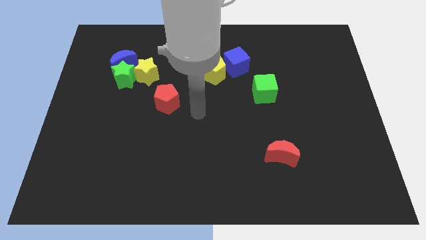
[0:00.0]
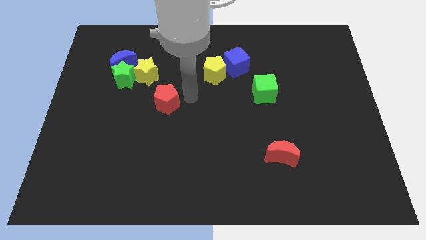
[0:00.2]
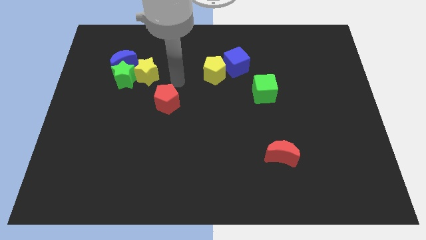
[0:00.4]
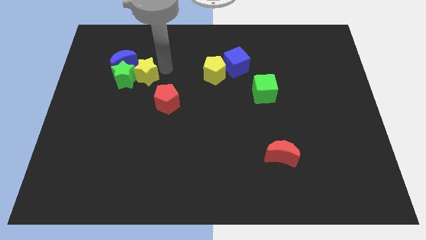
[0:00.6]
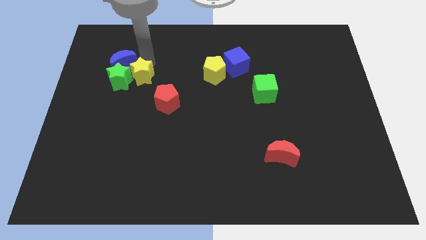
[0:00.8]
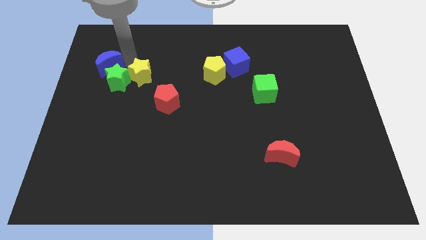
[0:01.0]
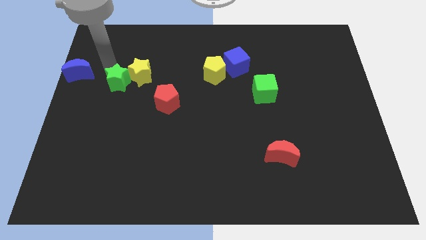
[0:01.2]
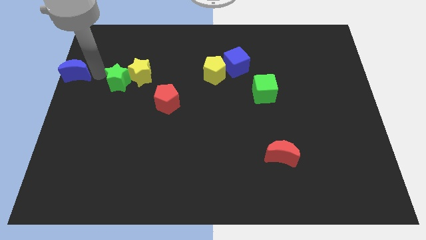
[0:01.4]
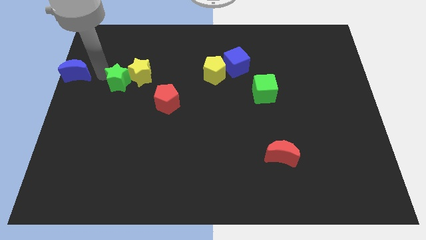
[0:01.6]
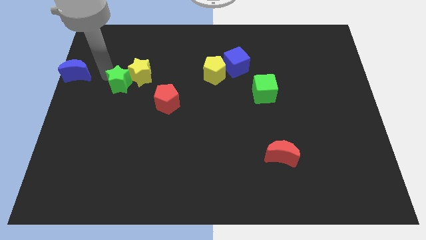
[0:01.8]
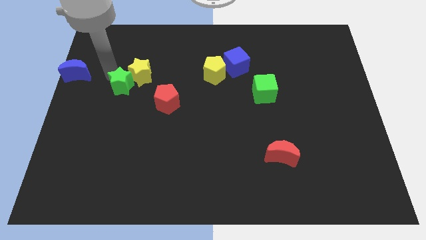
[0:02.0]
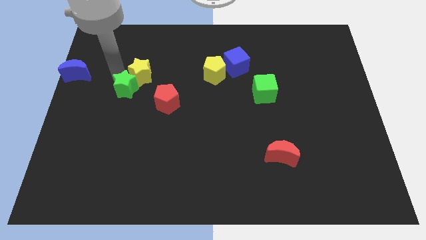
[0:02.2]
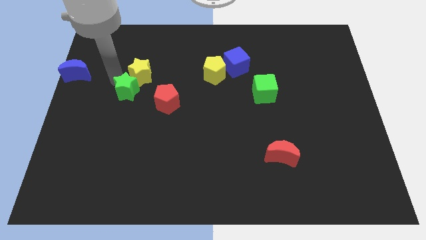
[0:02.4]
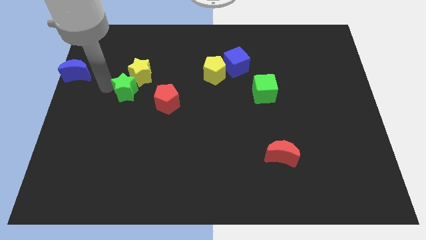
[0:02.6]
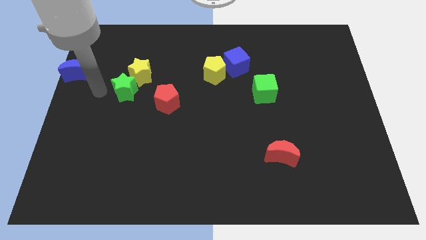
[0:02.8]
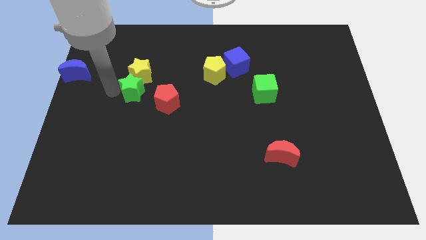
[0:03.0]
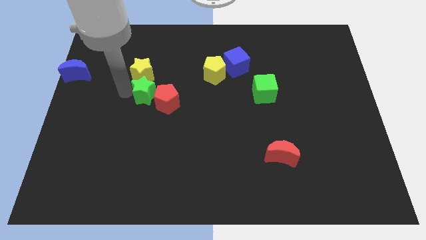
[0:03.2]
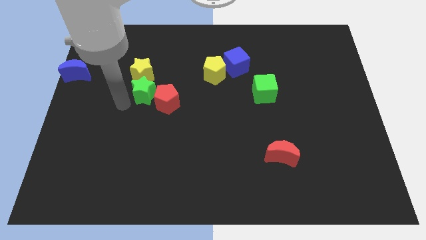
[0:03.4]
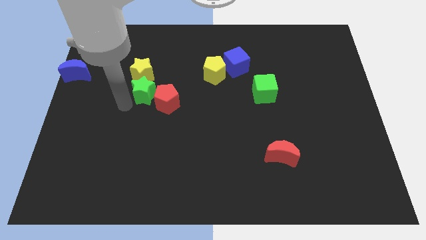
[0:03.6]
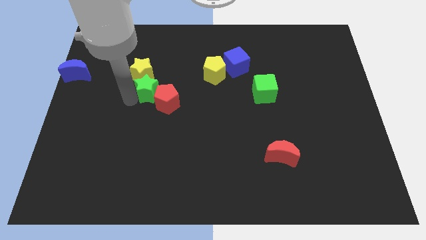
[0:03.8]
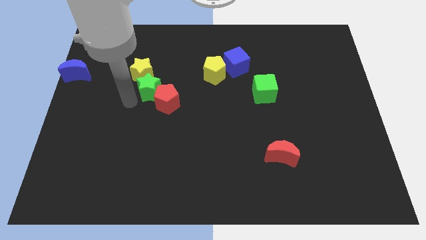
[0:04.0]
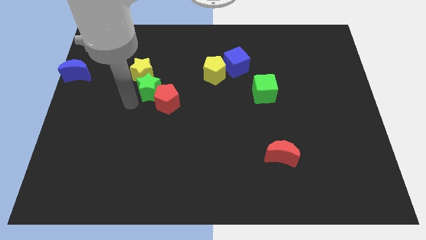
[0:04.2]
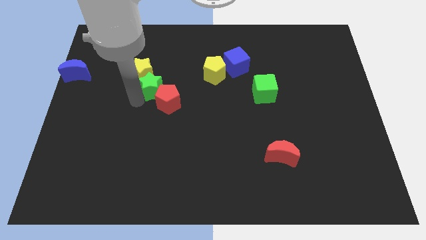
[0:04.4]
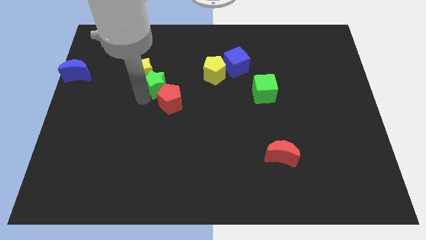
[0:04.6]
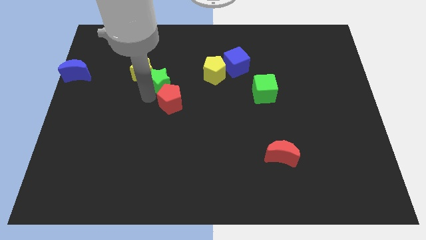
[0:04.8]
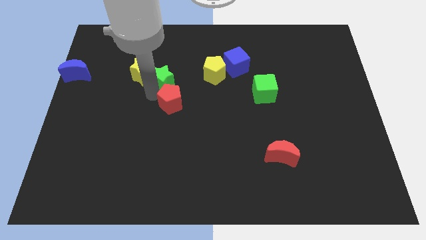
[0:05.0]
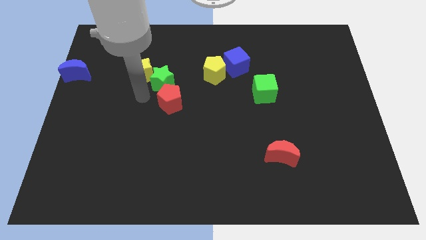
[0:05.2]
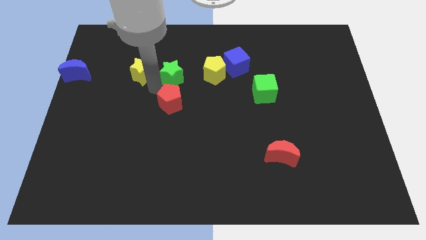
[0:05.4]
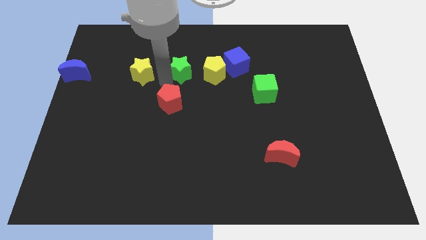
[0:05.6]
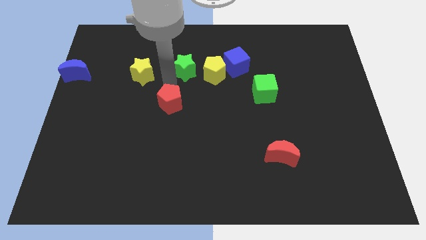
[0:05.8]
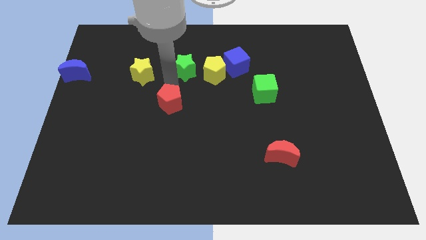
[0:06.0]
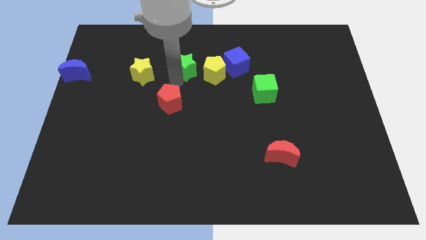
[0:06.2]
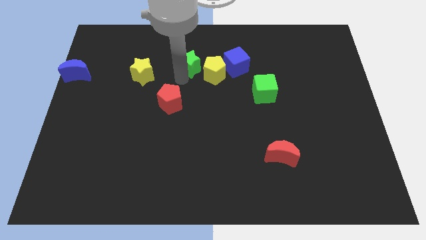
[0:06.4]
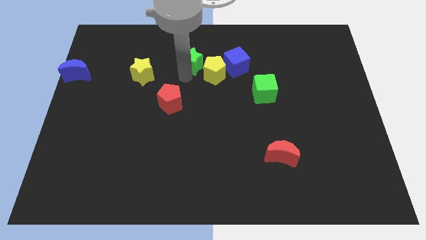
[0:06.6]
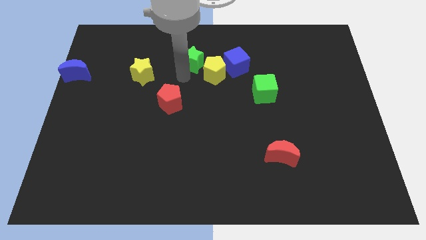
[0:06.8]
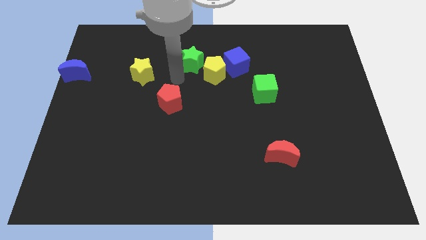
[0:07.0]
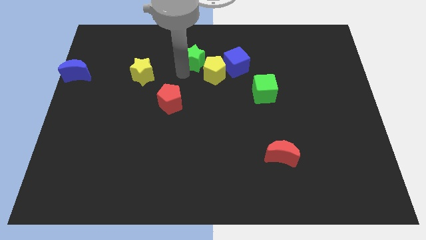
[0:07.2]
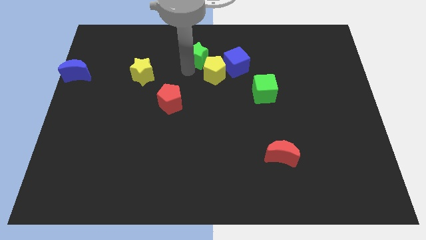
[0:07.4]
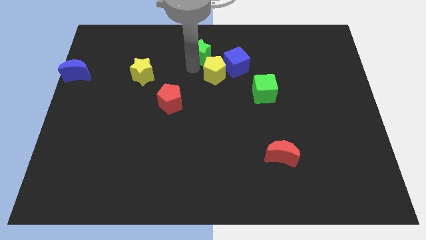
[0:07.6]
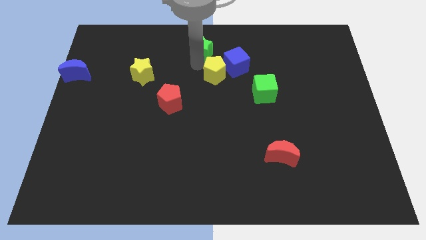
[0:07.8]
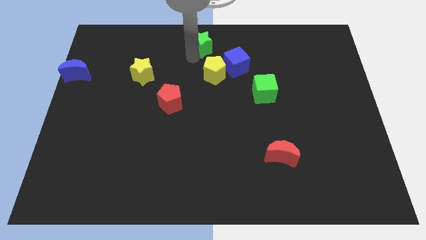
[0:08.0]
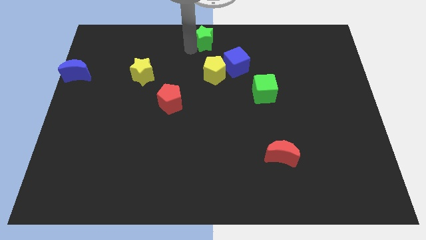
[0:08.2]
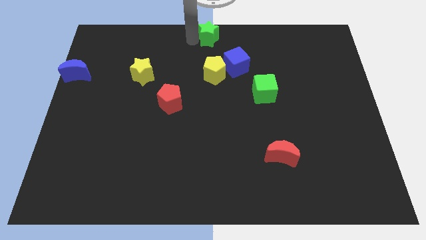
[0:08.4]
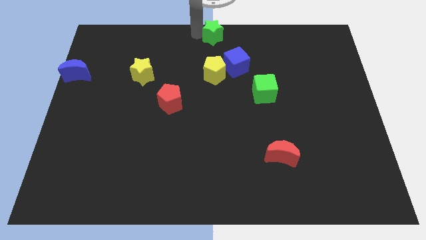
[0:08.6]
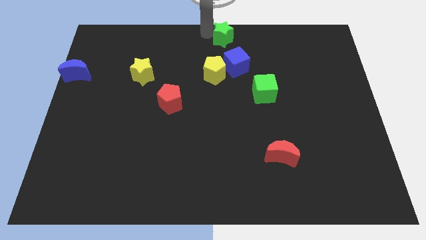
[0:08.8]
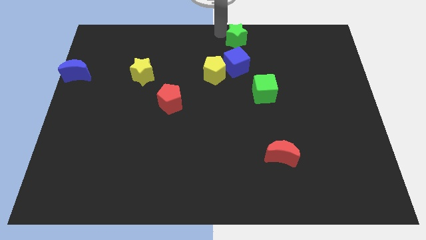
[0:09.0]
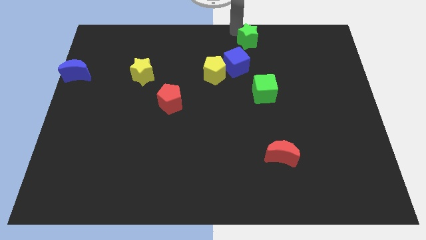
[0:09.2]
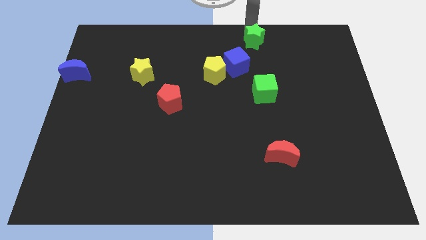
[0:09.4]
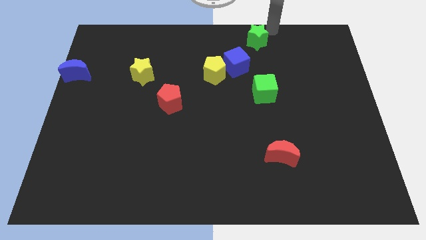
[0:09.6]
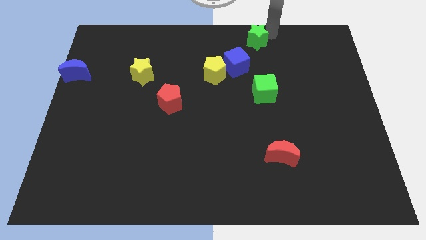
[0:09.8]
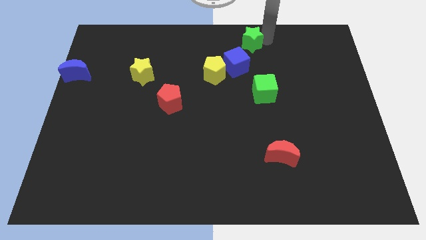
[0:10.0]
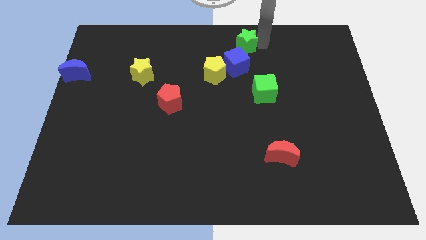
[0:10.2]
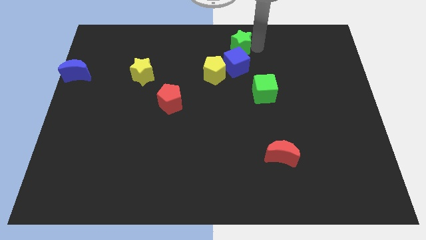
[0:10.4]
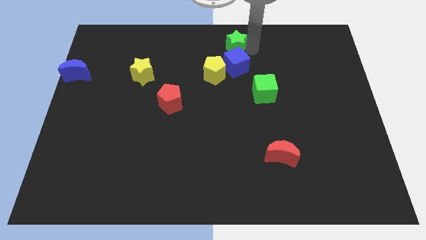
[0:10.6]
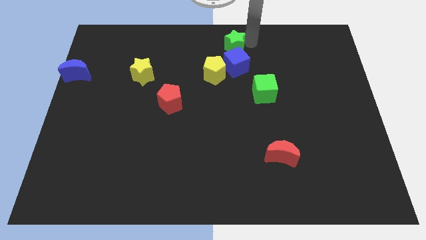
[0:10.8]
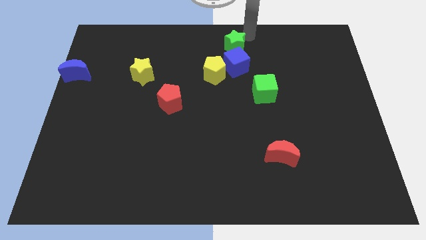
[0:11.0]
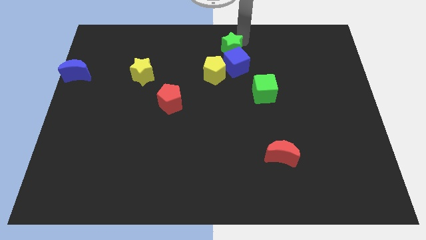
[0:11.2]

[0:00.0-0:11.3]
move the green star close to the blue cube

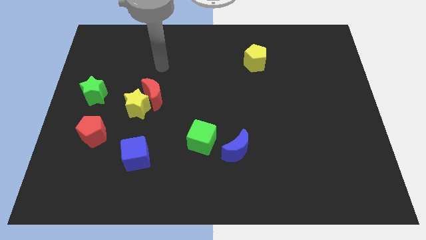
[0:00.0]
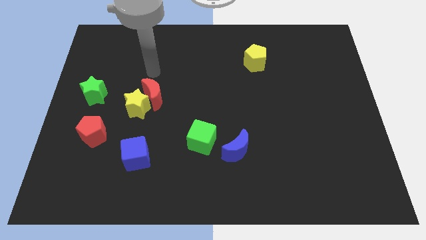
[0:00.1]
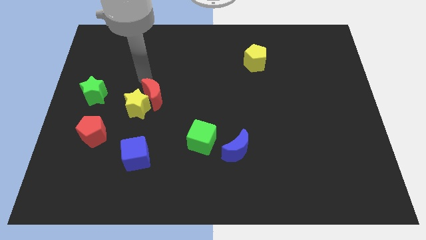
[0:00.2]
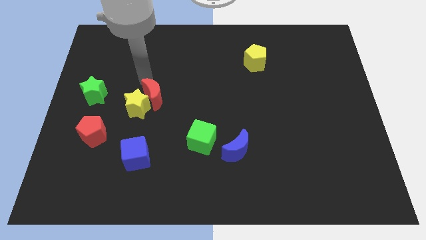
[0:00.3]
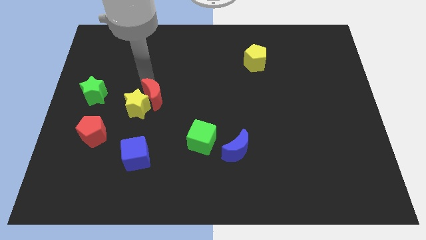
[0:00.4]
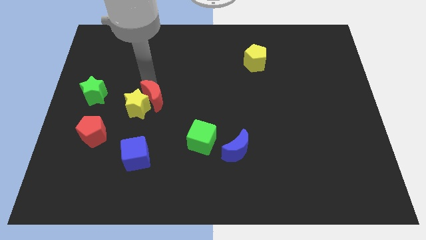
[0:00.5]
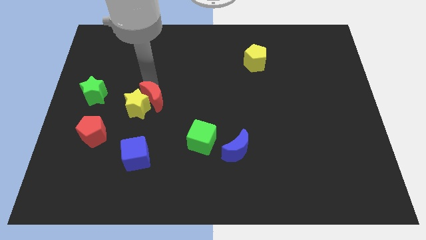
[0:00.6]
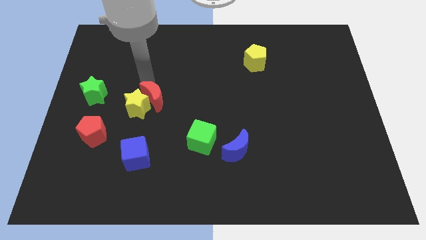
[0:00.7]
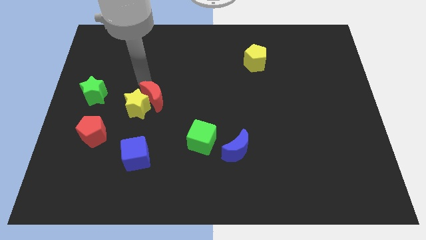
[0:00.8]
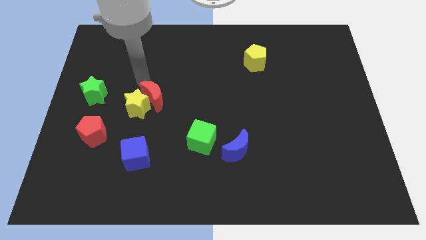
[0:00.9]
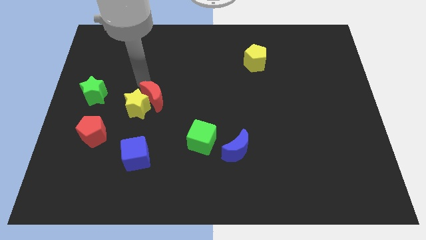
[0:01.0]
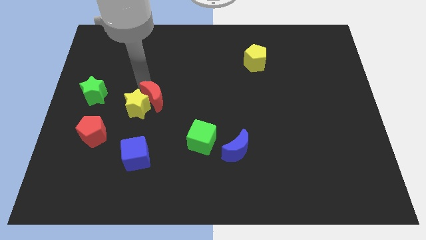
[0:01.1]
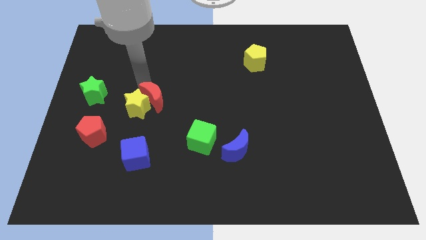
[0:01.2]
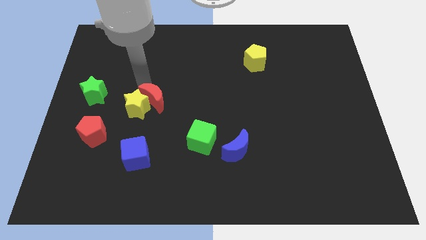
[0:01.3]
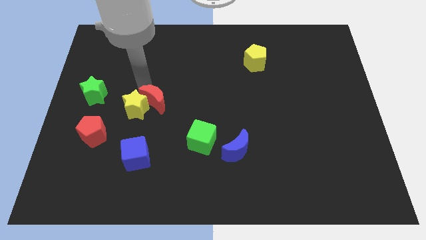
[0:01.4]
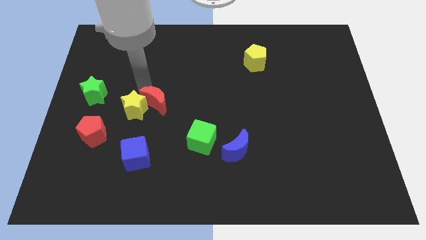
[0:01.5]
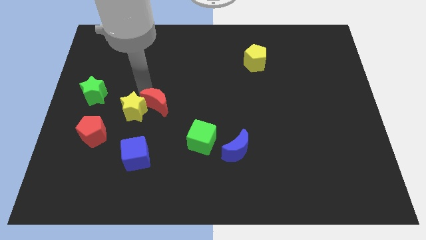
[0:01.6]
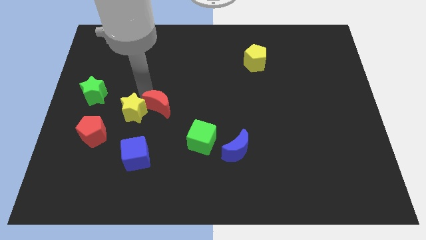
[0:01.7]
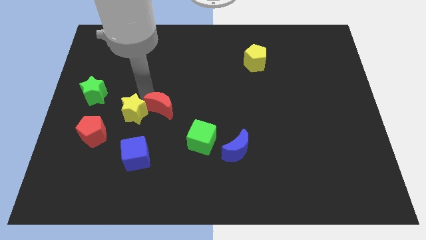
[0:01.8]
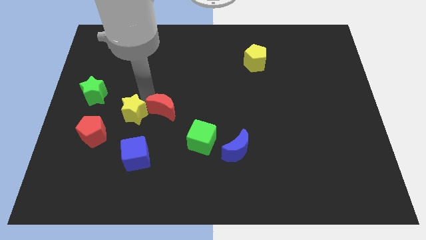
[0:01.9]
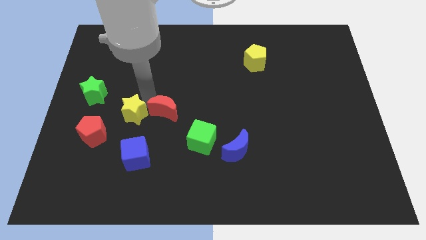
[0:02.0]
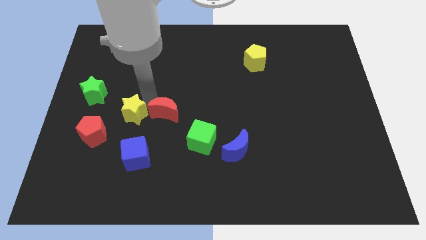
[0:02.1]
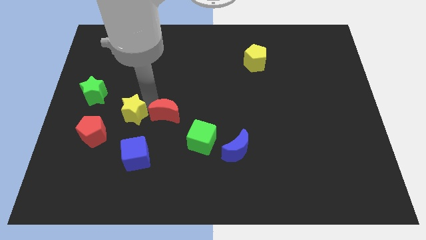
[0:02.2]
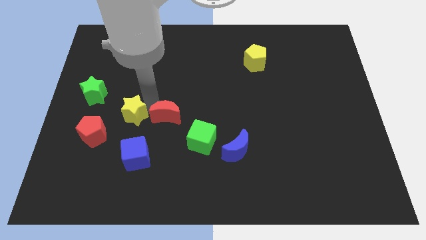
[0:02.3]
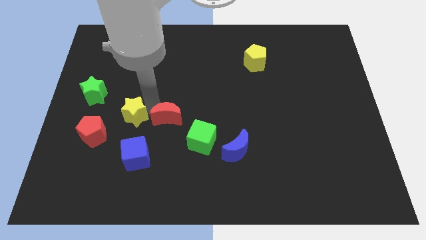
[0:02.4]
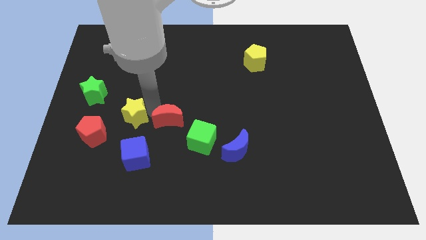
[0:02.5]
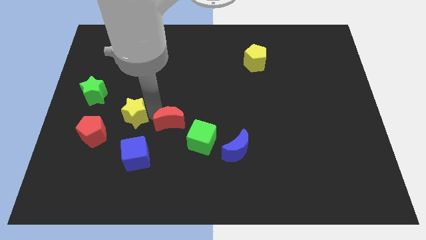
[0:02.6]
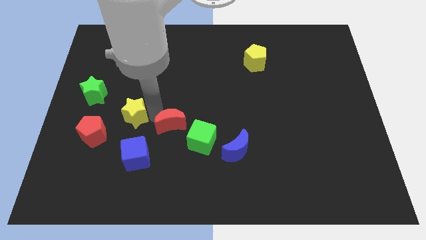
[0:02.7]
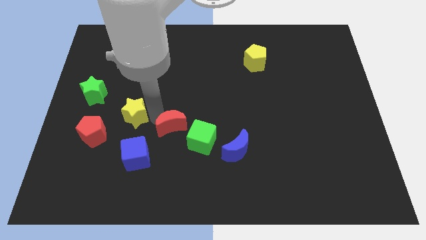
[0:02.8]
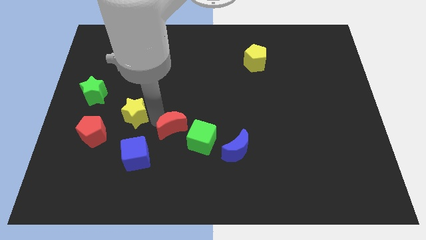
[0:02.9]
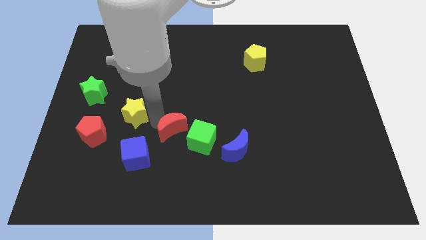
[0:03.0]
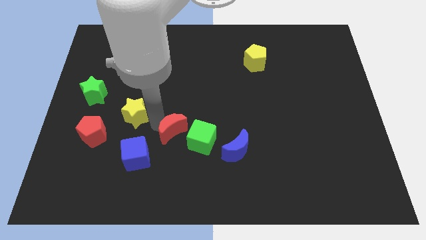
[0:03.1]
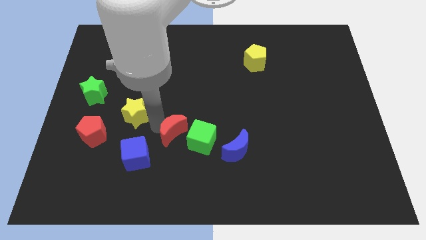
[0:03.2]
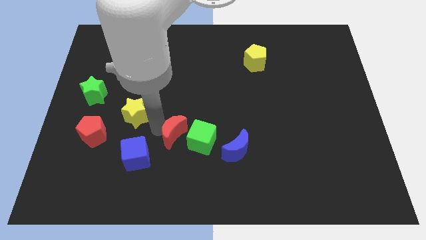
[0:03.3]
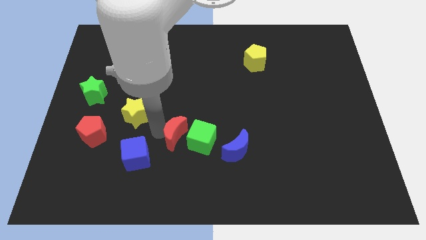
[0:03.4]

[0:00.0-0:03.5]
slide the red moon to the green cube
